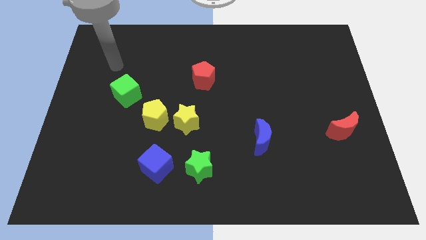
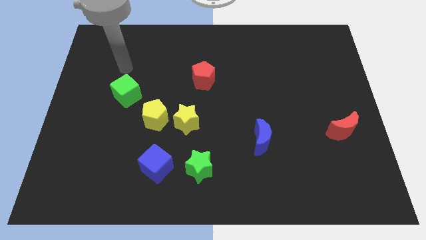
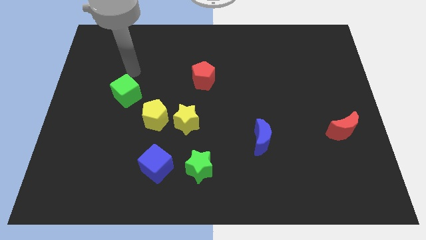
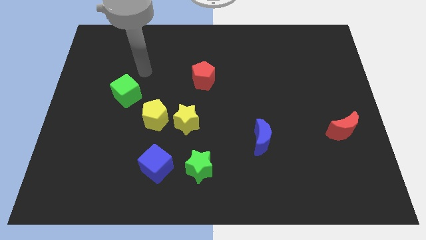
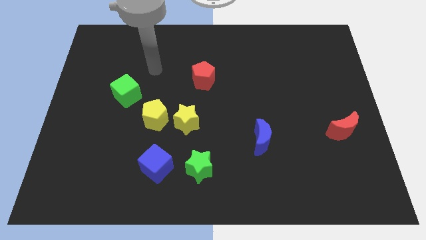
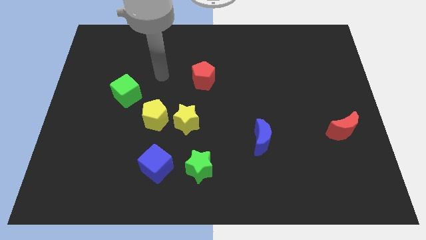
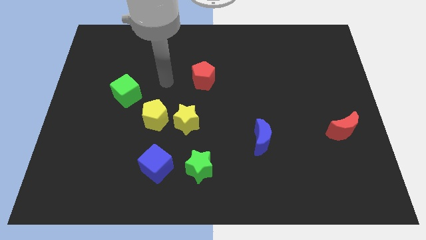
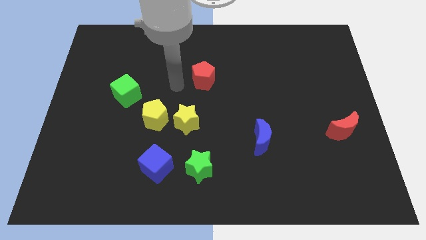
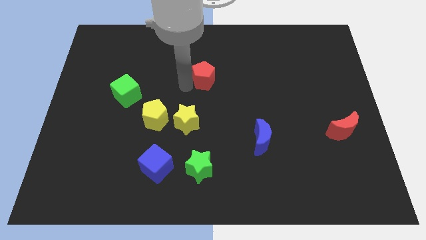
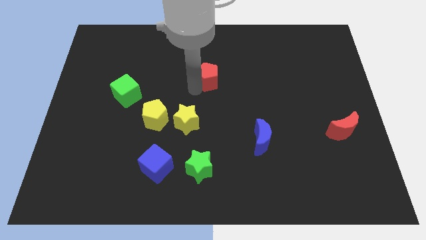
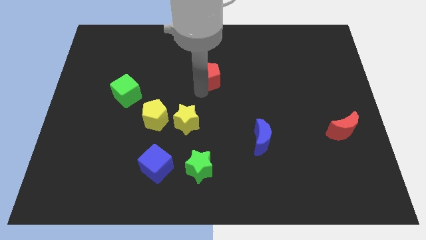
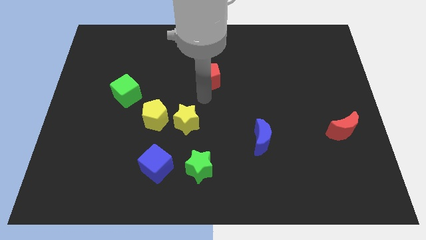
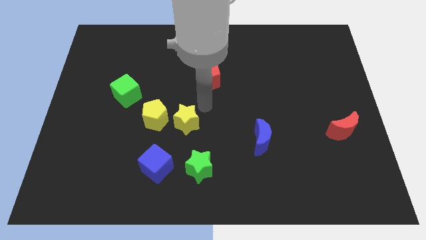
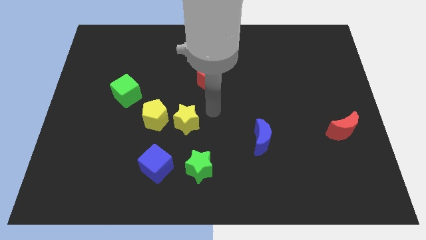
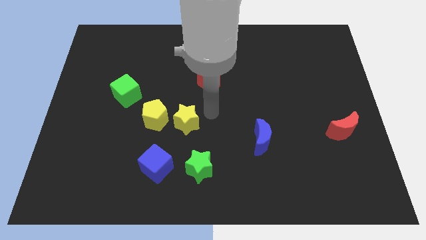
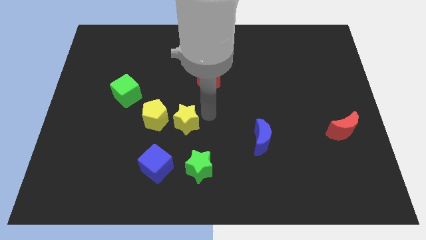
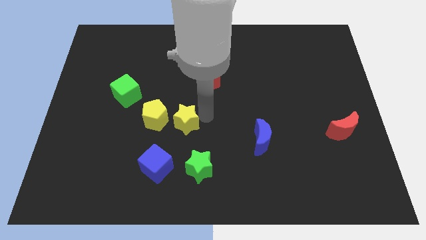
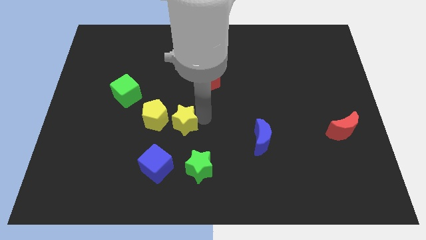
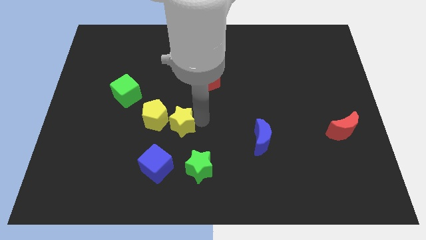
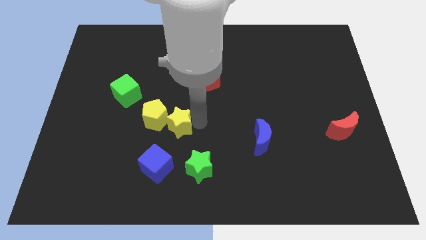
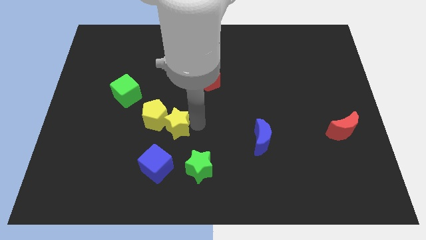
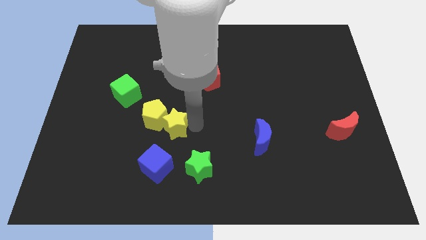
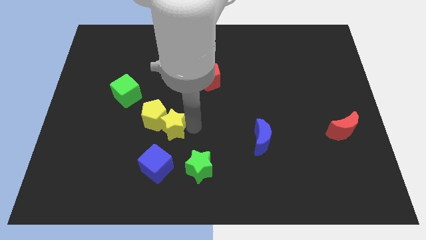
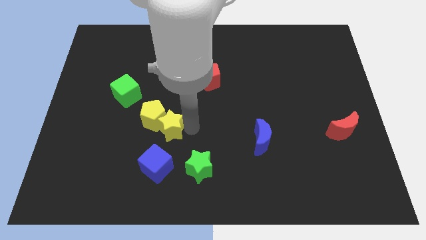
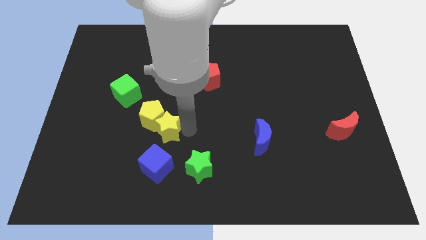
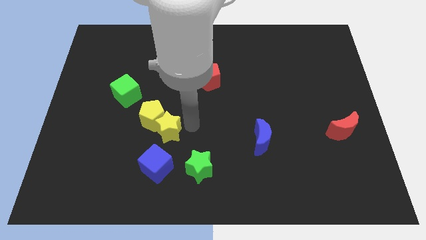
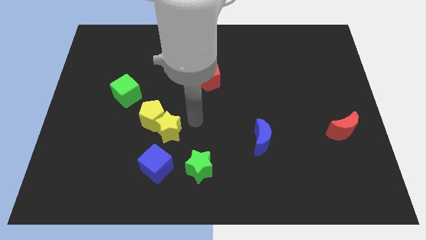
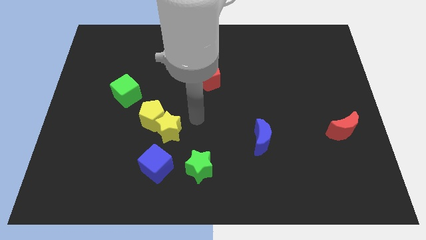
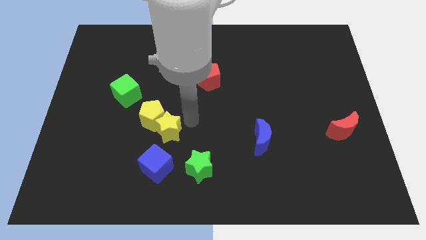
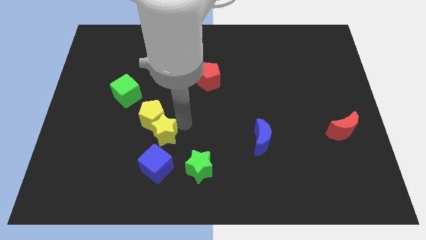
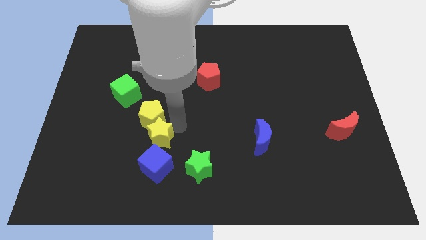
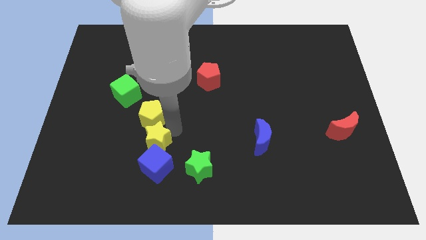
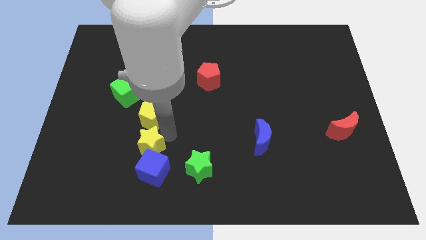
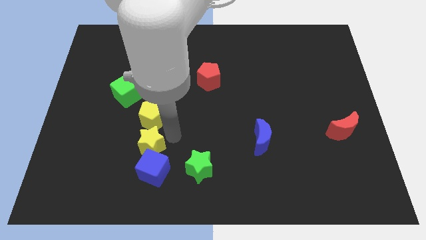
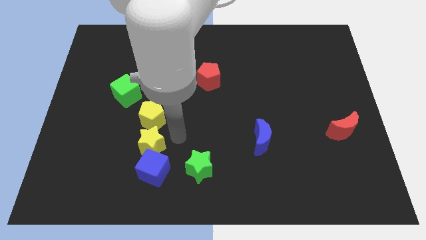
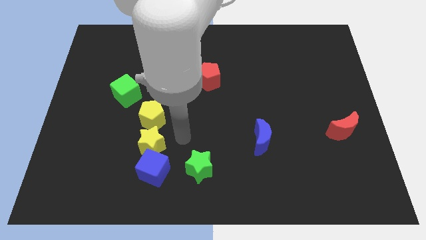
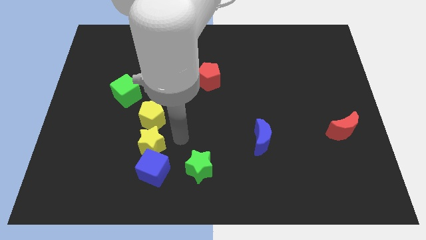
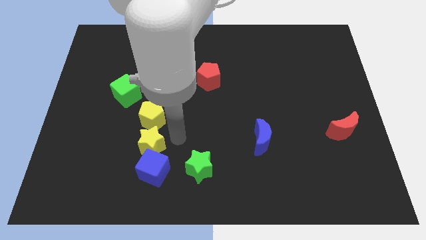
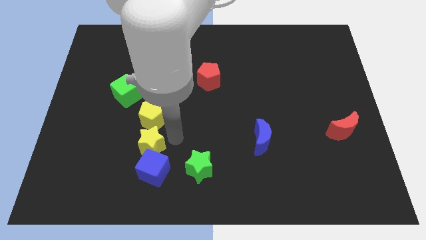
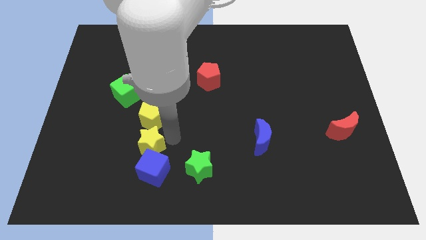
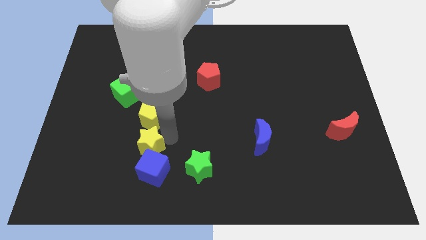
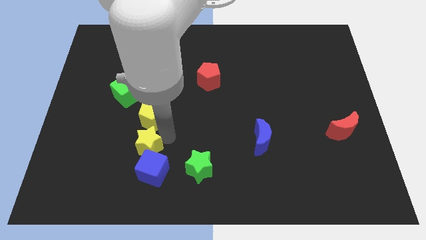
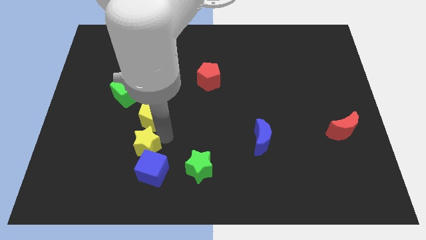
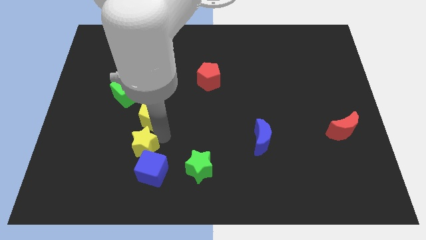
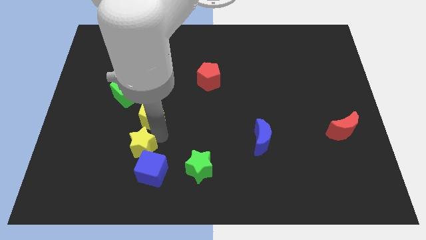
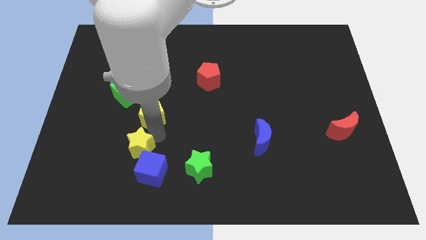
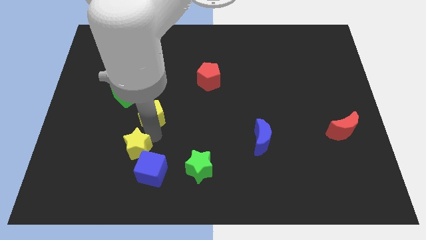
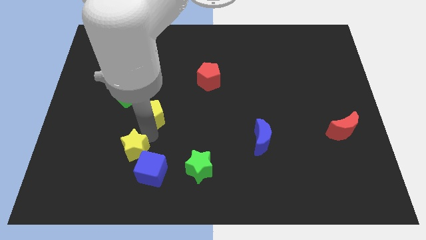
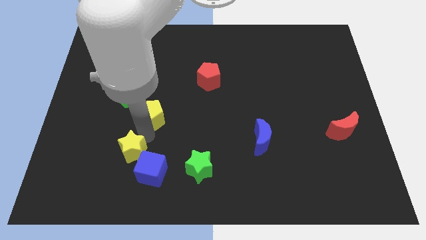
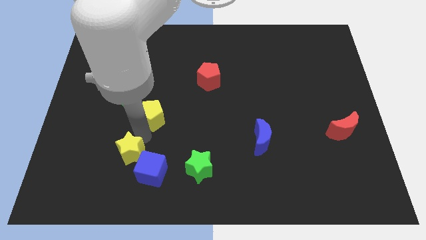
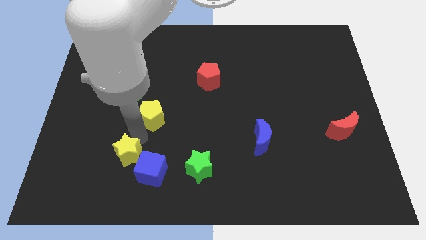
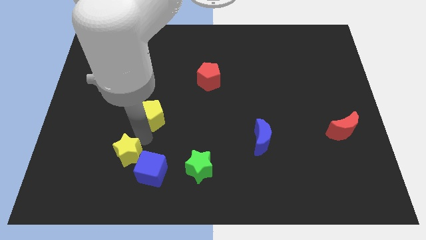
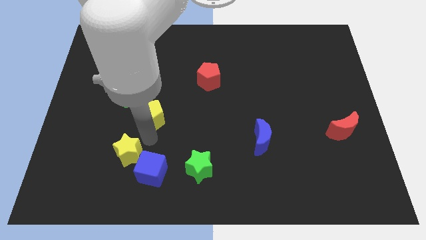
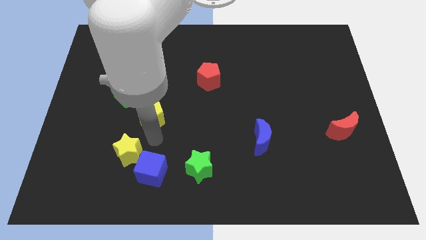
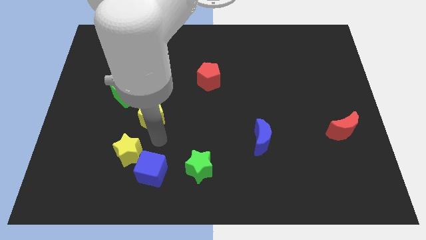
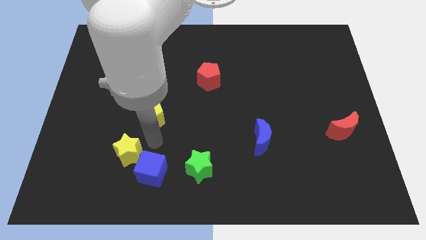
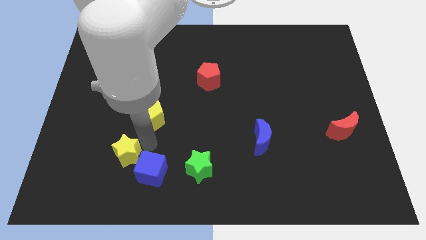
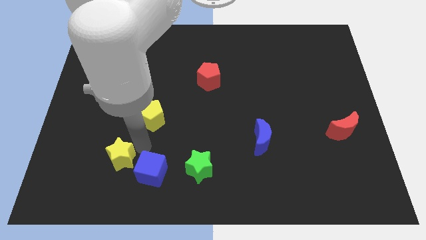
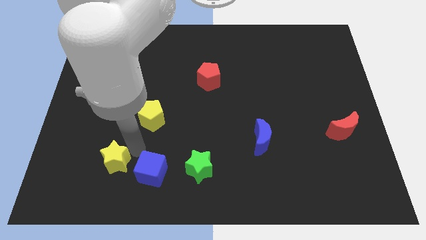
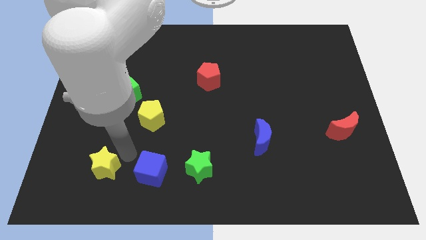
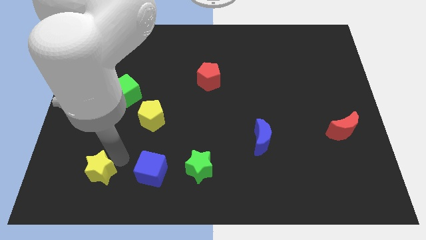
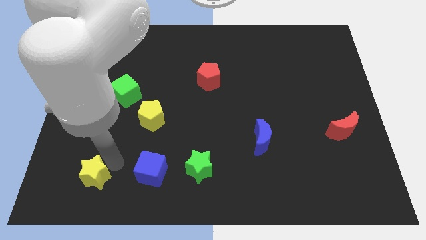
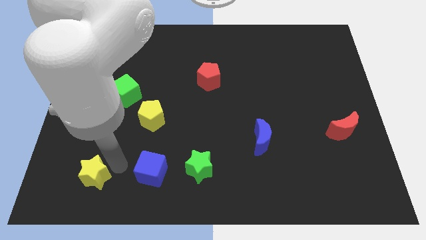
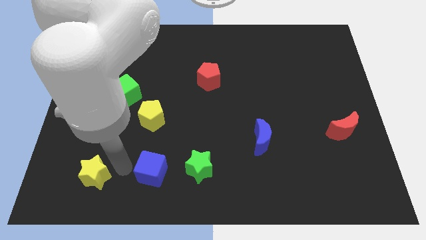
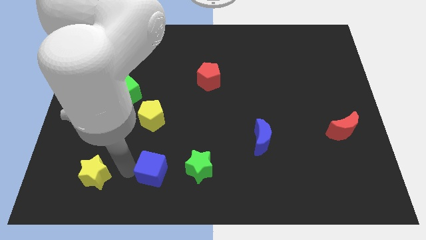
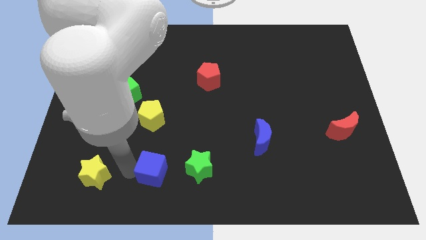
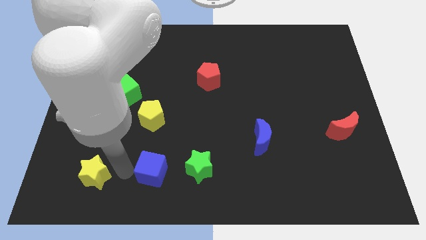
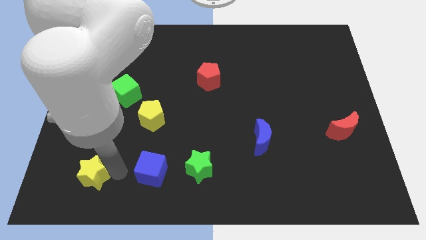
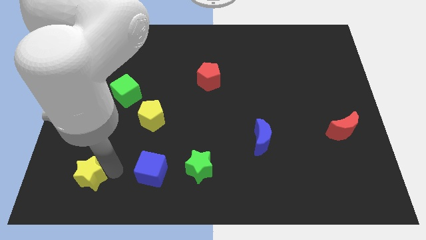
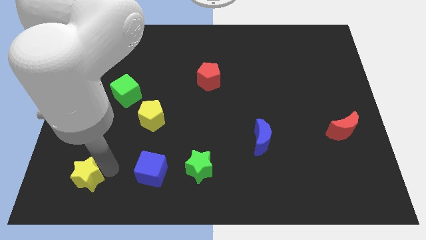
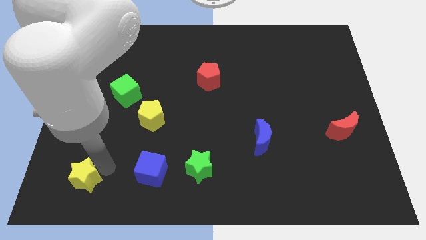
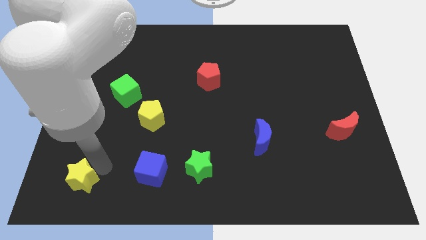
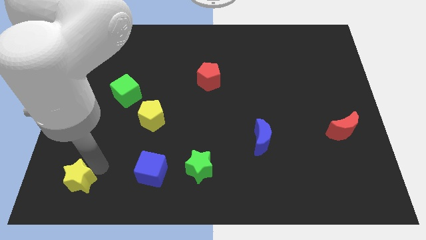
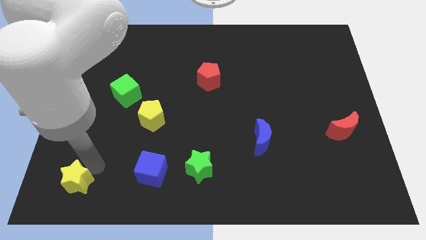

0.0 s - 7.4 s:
put the yellow star to the bottom left corner
